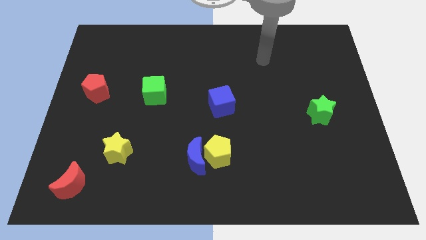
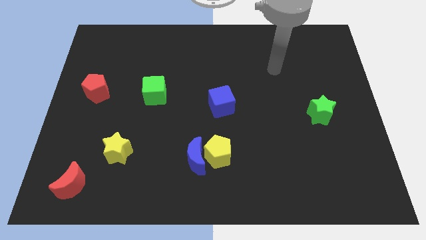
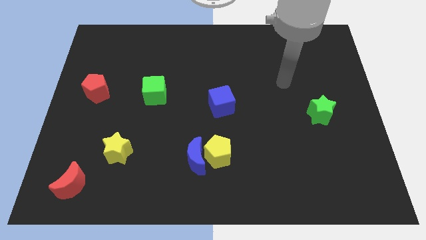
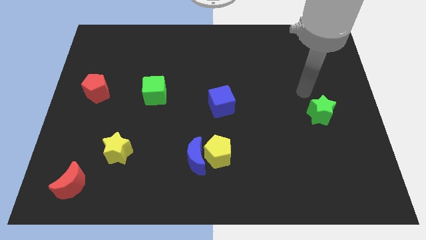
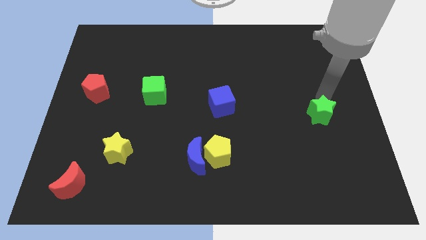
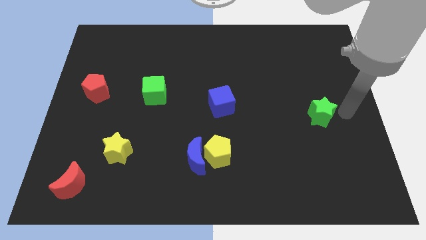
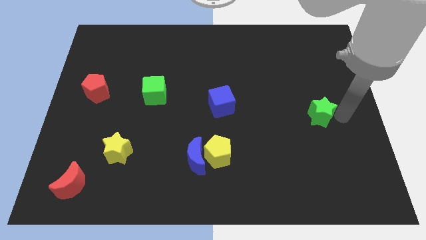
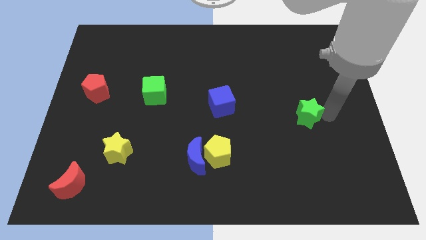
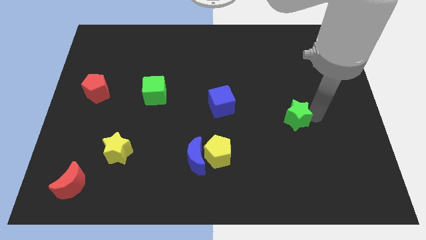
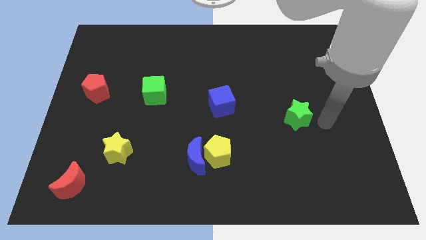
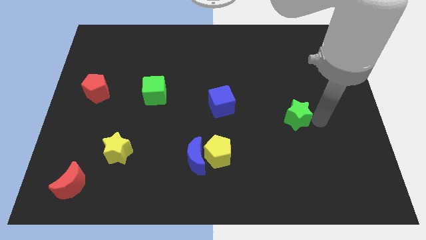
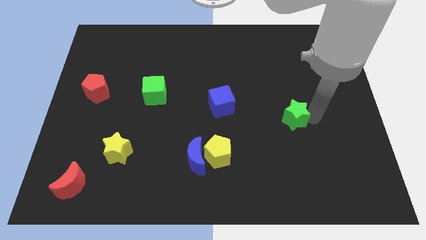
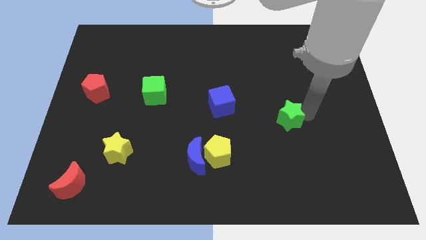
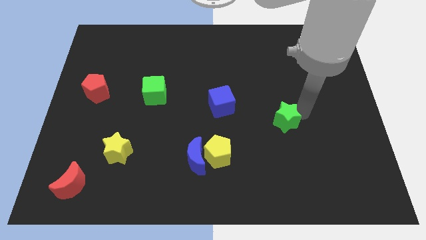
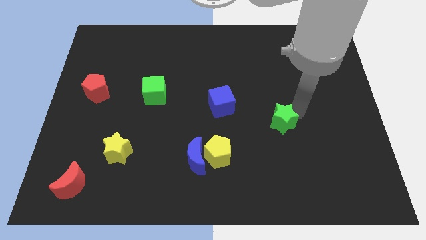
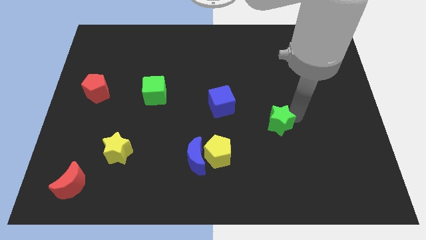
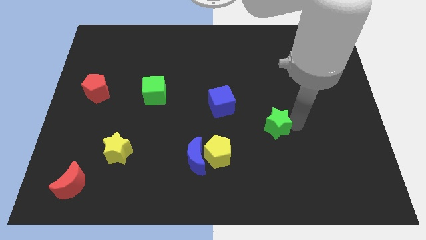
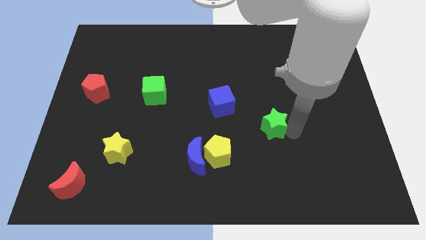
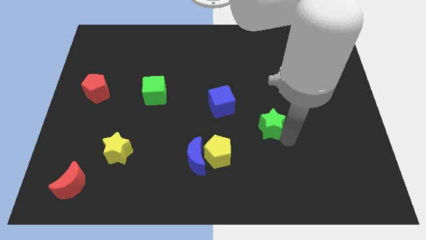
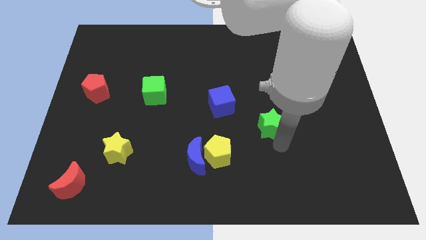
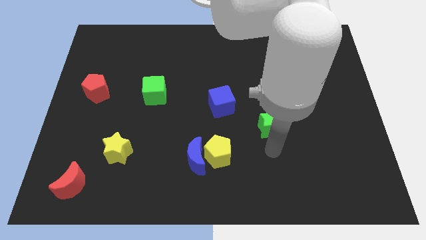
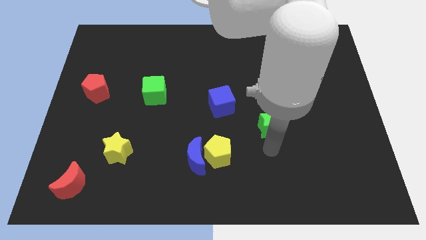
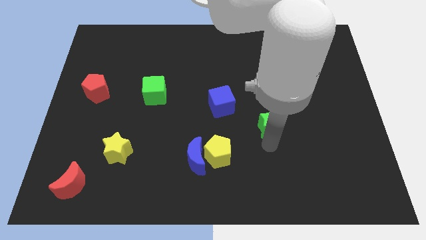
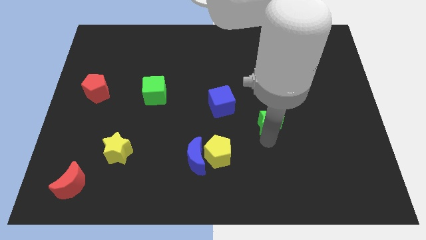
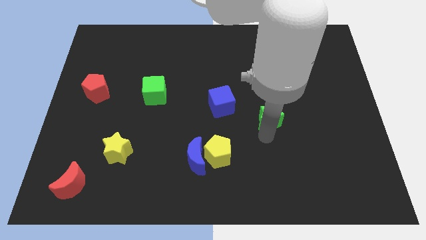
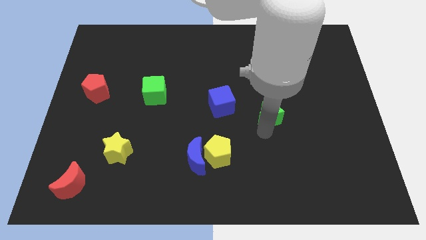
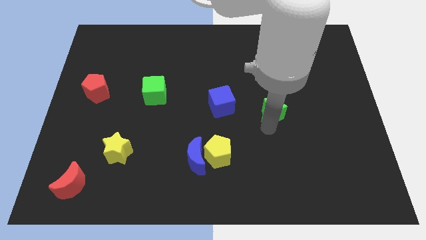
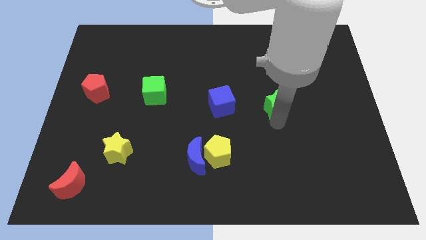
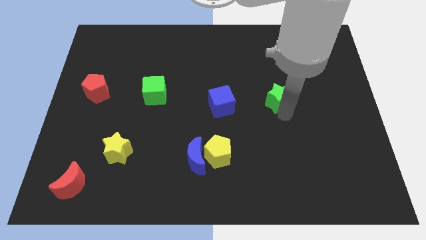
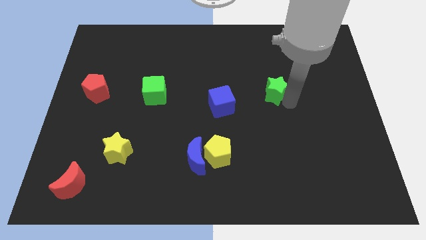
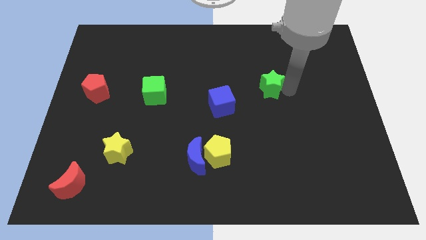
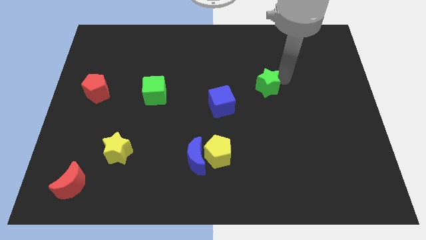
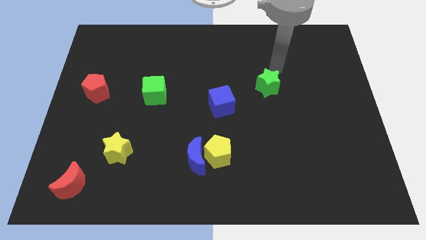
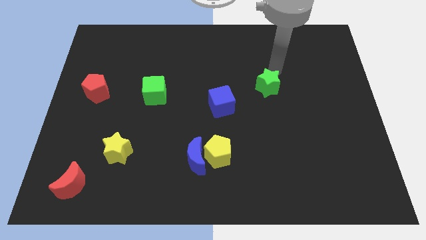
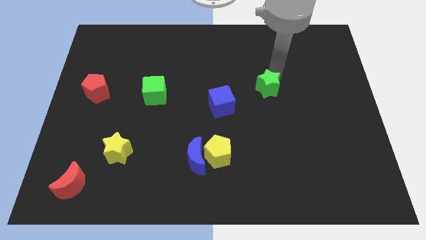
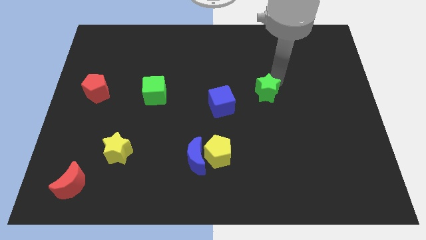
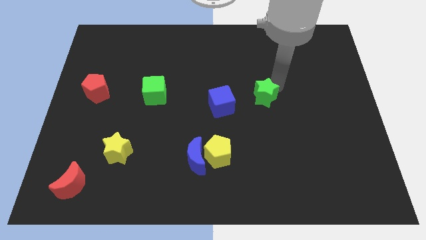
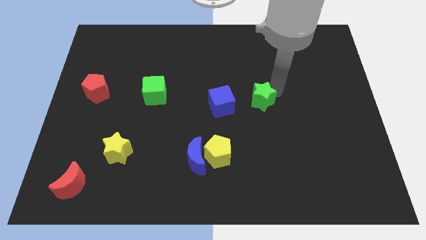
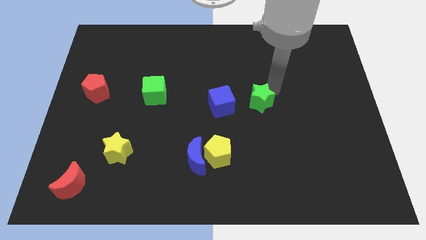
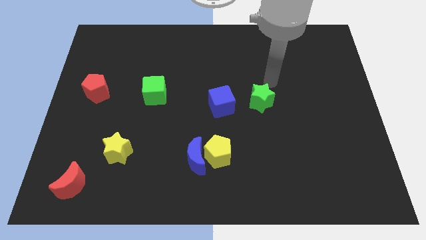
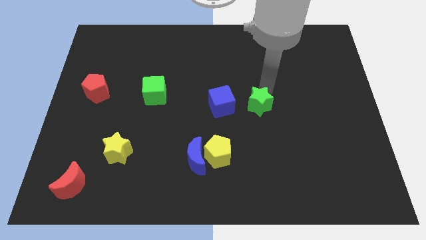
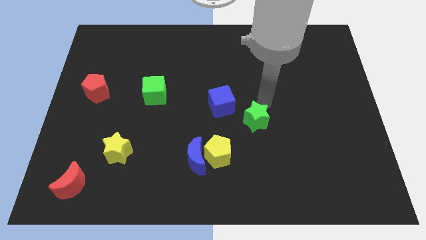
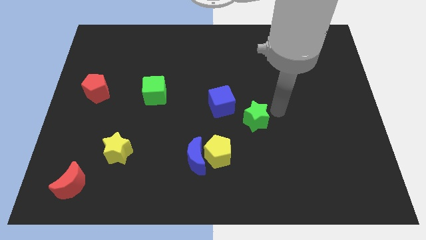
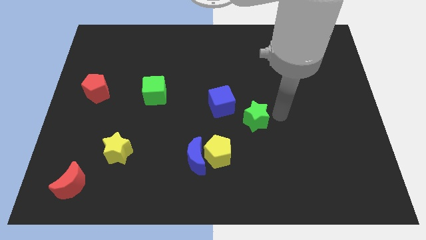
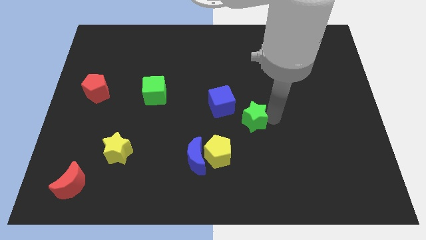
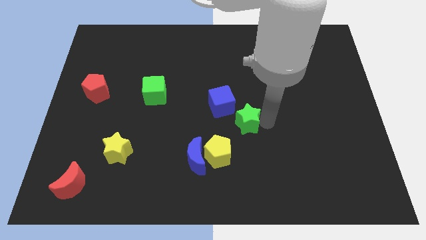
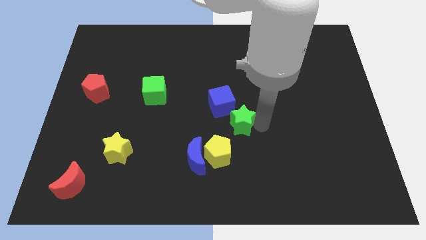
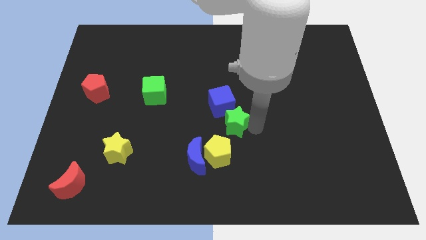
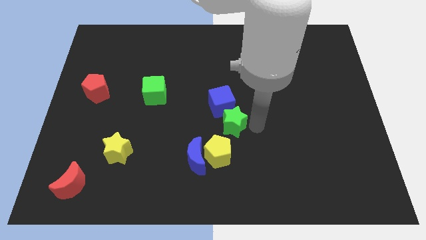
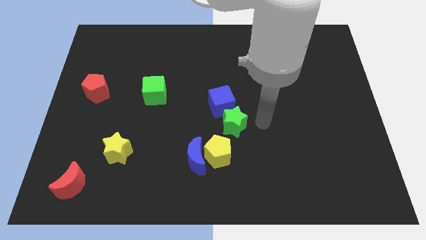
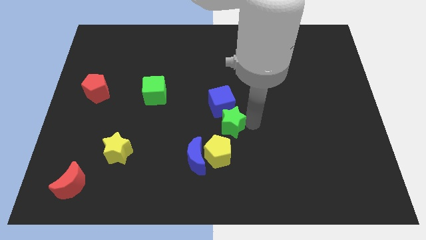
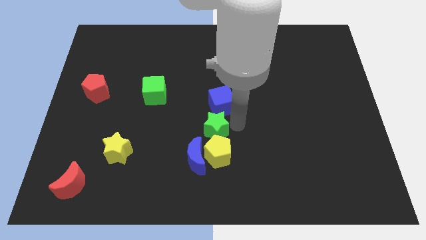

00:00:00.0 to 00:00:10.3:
slide the green star to the top left of the yellow pentagon

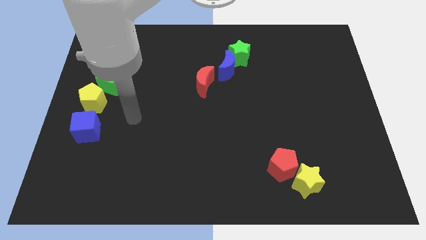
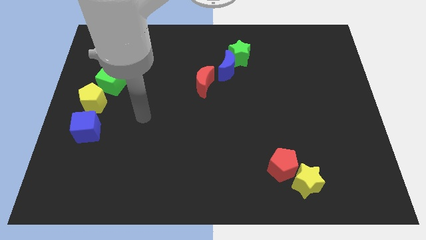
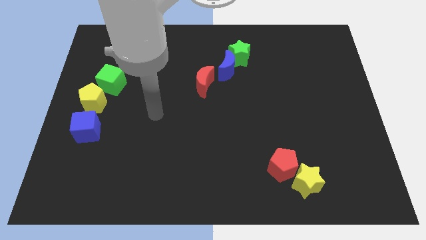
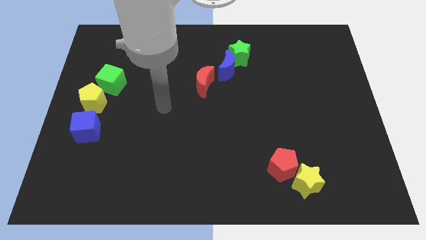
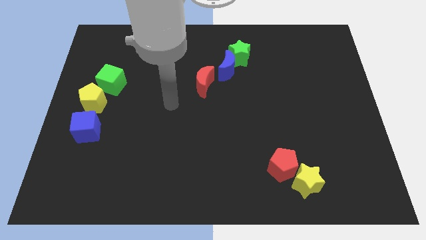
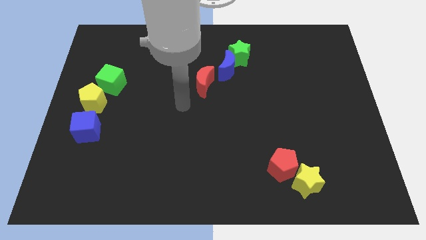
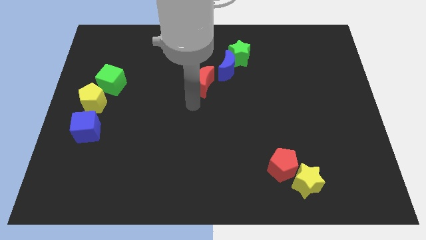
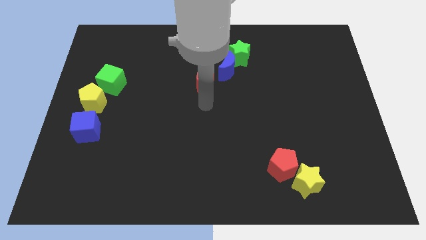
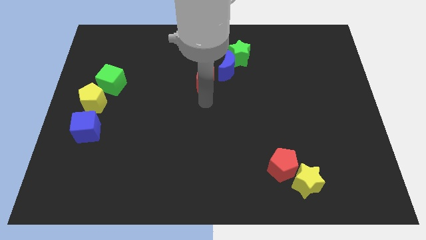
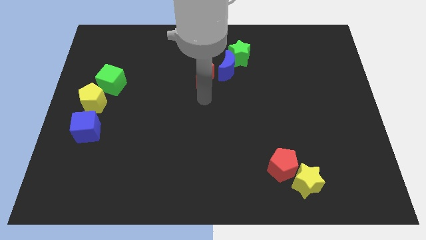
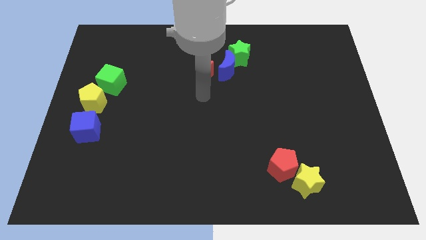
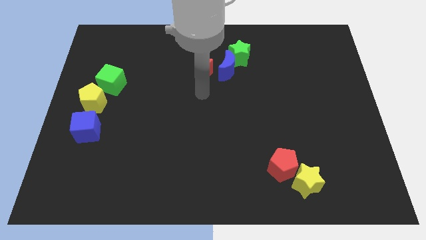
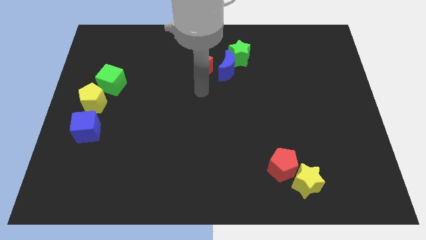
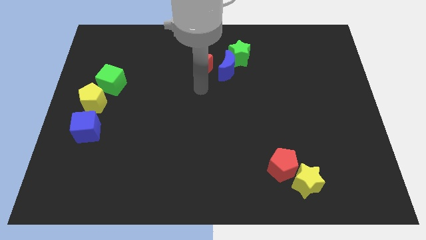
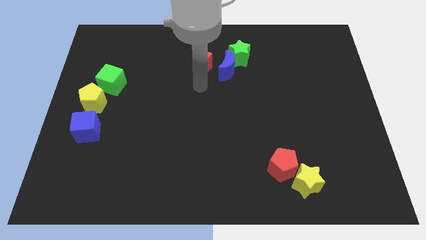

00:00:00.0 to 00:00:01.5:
move the red moon to the left side of the green star
